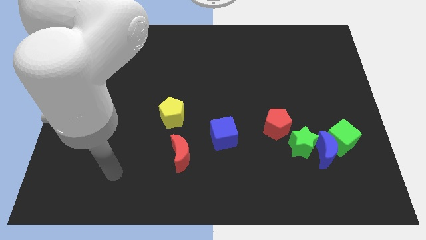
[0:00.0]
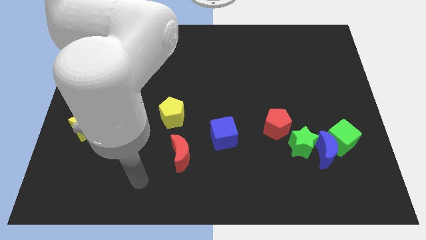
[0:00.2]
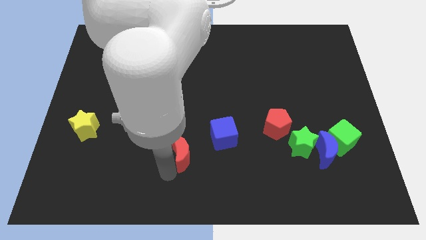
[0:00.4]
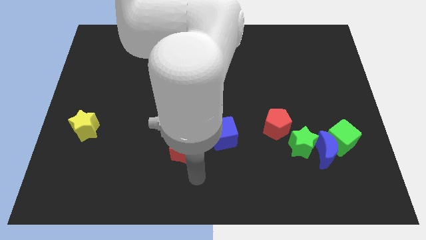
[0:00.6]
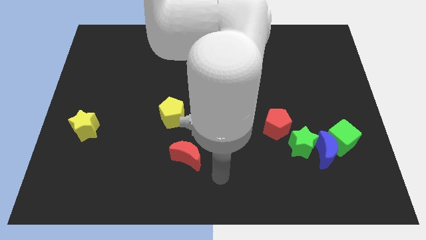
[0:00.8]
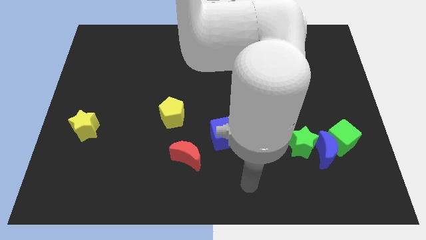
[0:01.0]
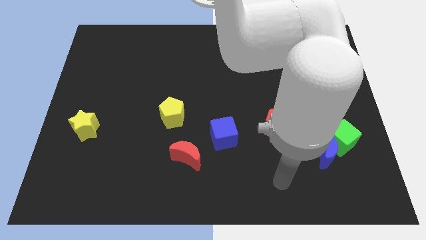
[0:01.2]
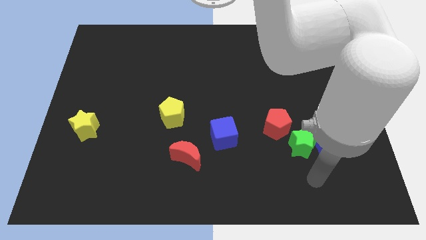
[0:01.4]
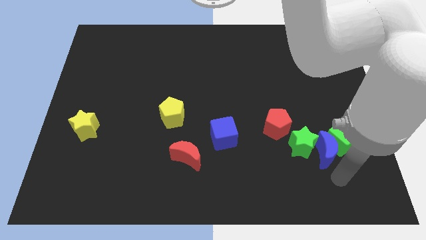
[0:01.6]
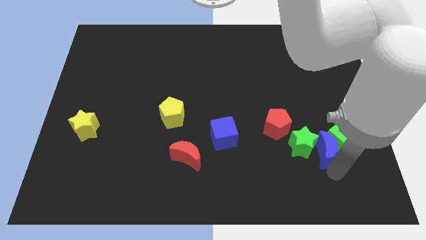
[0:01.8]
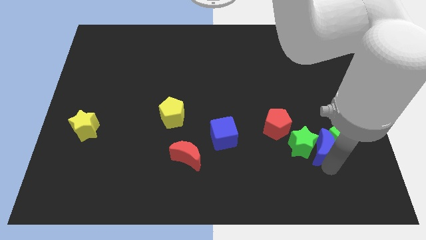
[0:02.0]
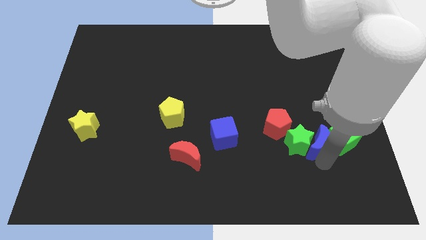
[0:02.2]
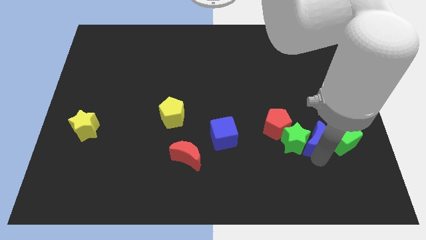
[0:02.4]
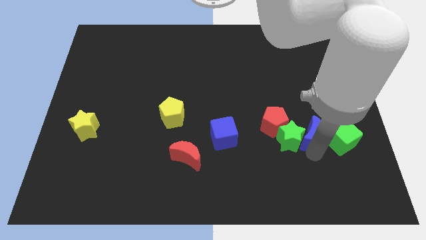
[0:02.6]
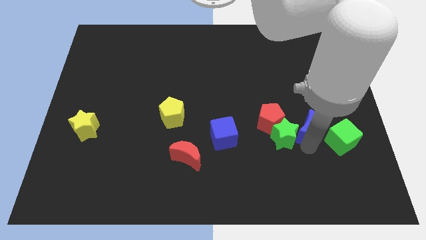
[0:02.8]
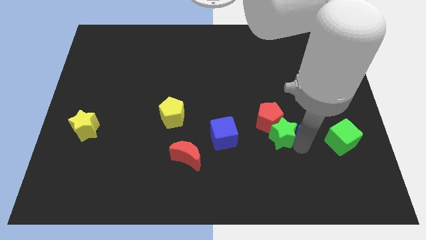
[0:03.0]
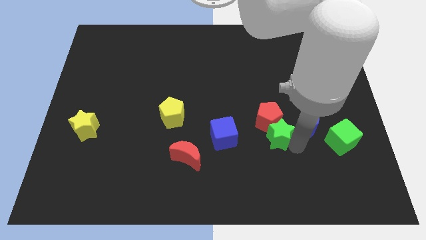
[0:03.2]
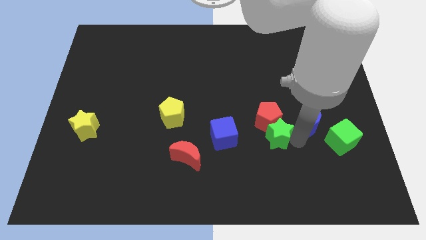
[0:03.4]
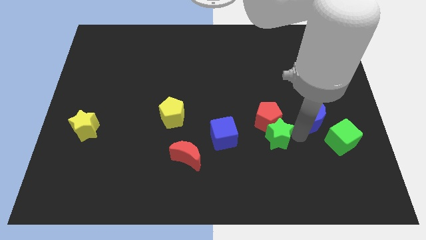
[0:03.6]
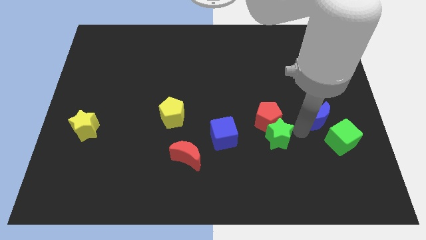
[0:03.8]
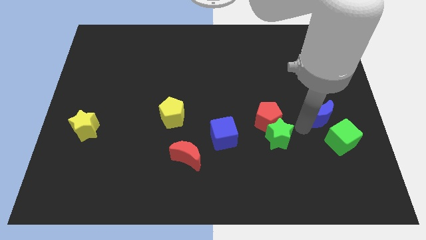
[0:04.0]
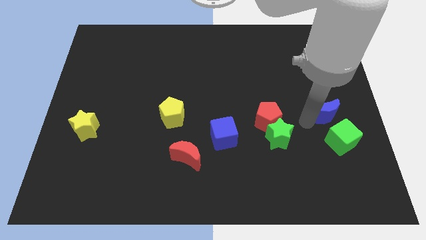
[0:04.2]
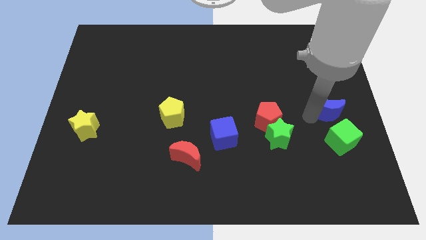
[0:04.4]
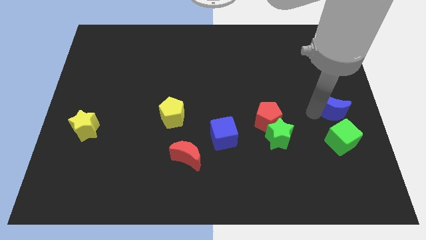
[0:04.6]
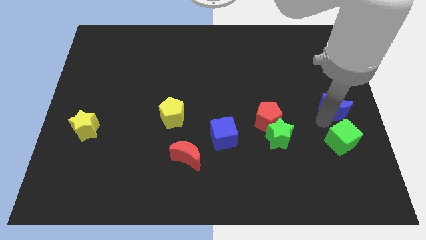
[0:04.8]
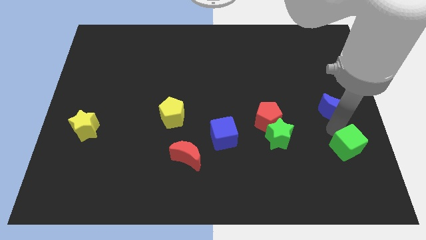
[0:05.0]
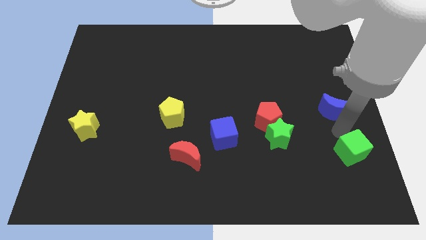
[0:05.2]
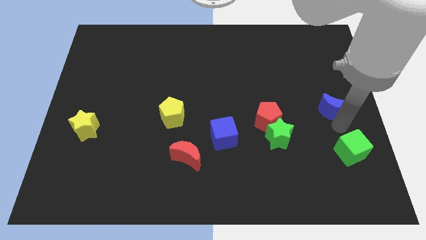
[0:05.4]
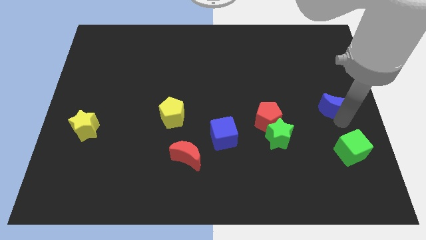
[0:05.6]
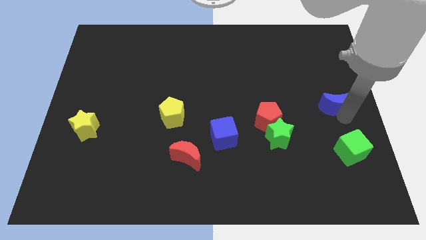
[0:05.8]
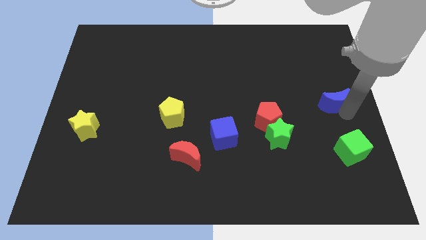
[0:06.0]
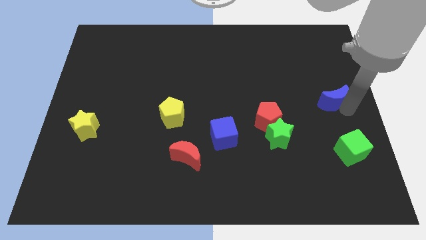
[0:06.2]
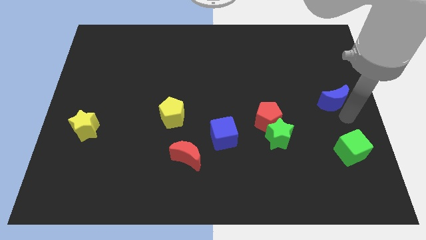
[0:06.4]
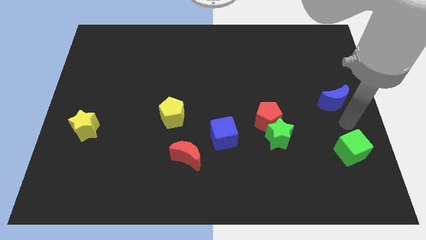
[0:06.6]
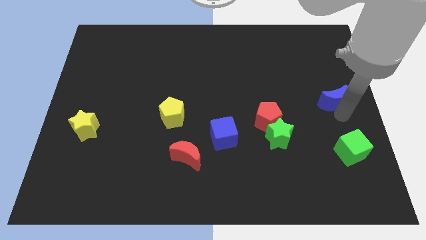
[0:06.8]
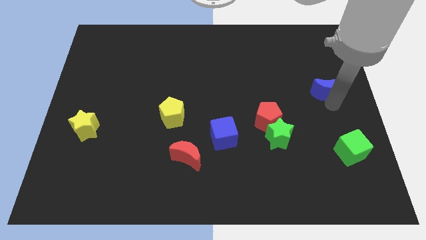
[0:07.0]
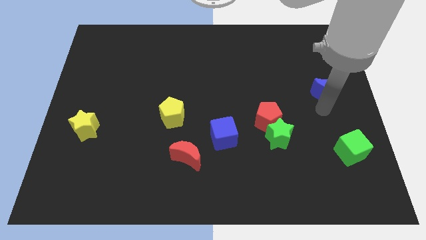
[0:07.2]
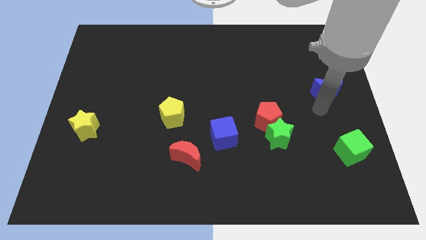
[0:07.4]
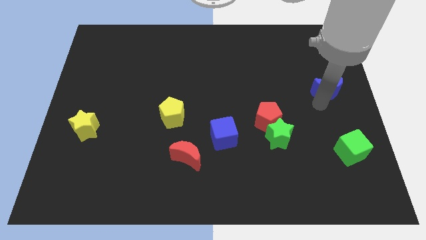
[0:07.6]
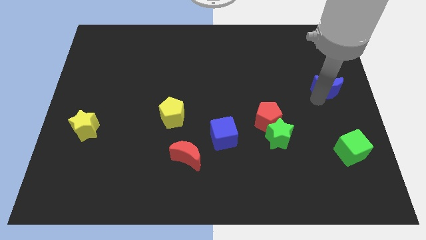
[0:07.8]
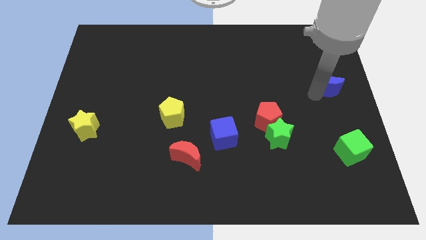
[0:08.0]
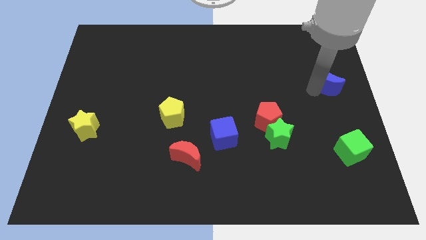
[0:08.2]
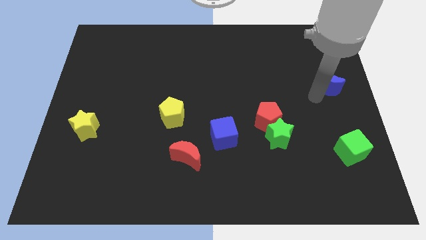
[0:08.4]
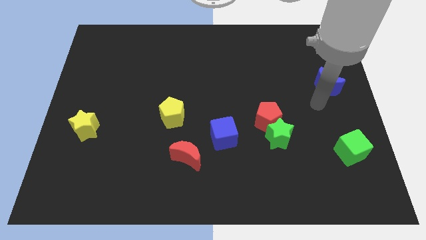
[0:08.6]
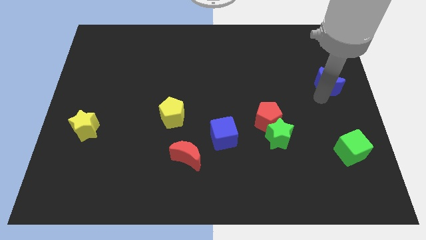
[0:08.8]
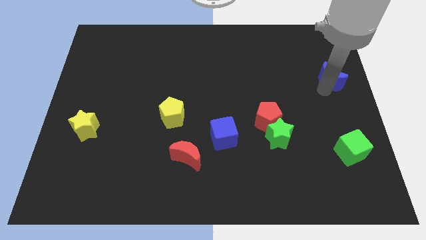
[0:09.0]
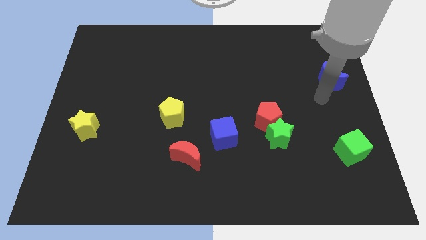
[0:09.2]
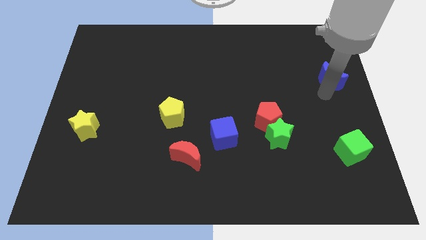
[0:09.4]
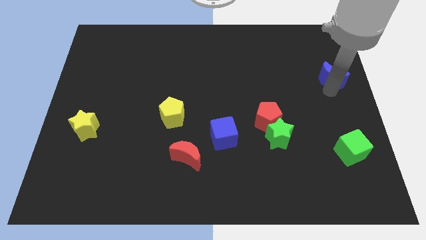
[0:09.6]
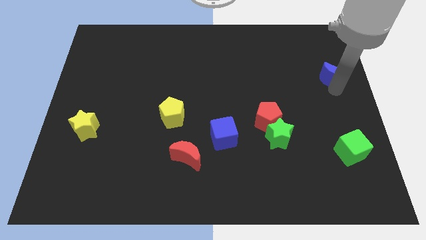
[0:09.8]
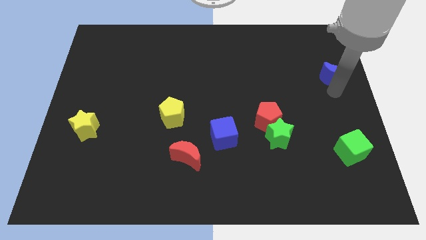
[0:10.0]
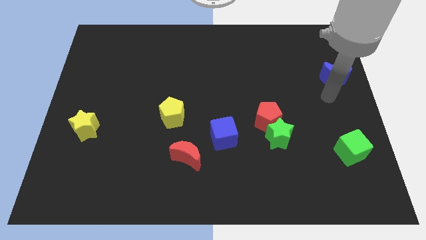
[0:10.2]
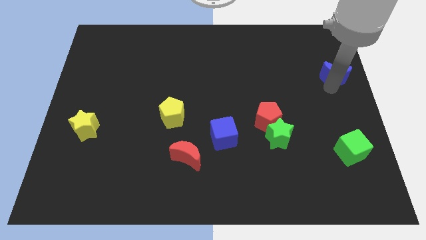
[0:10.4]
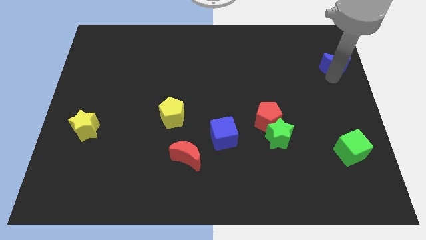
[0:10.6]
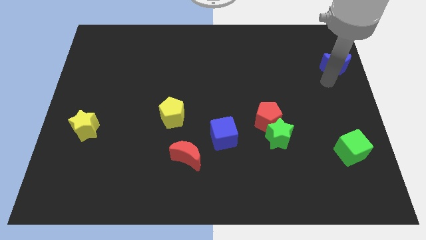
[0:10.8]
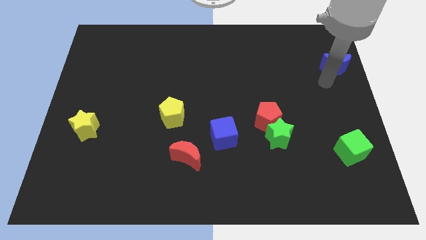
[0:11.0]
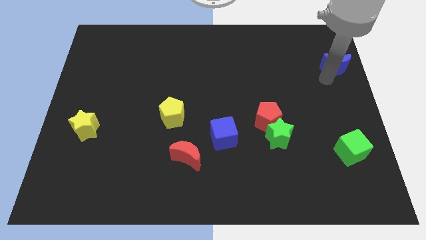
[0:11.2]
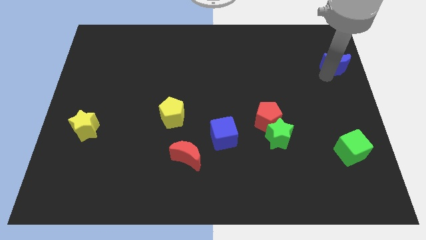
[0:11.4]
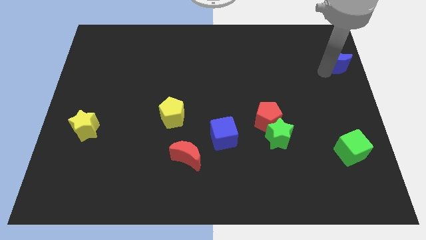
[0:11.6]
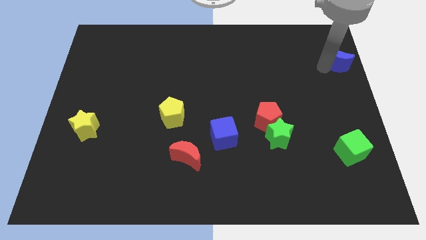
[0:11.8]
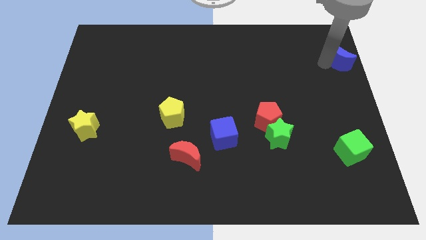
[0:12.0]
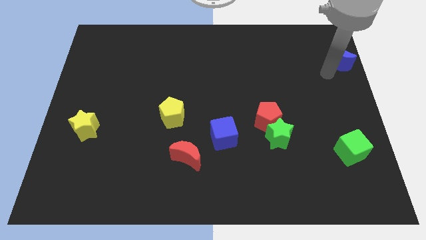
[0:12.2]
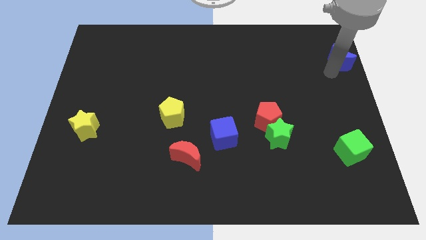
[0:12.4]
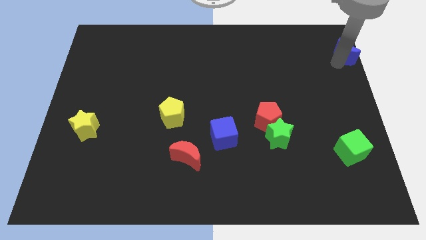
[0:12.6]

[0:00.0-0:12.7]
put the blue moon to the top right of the board

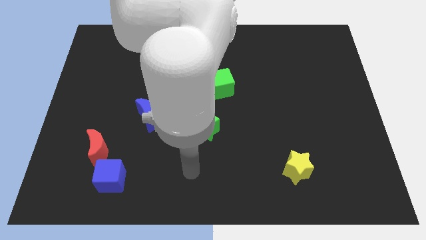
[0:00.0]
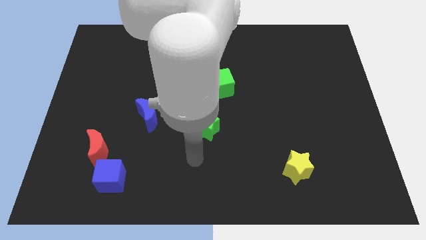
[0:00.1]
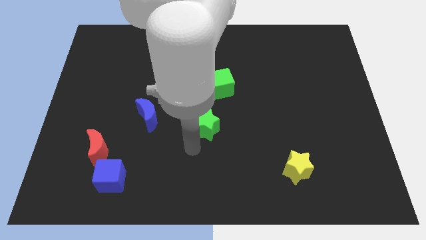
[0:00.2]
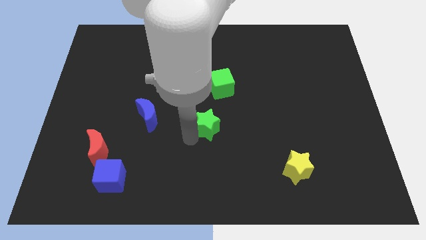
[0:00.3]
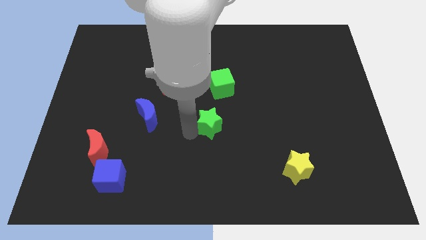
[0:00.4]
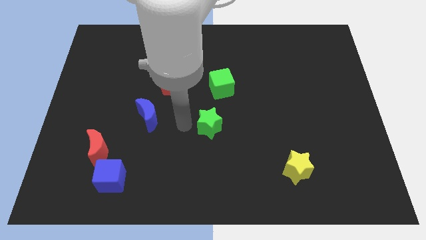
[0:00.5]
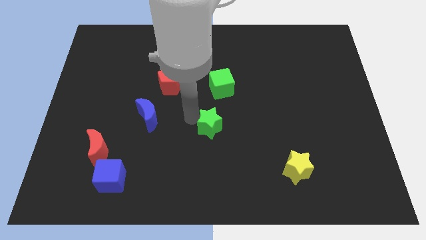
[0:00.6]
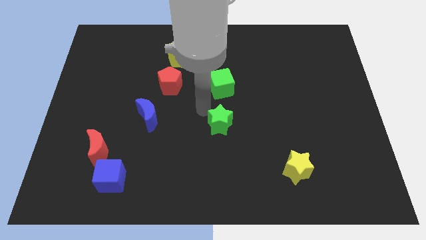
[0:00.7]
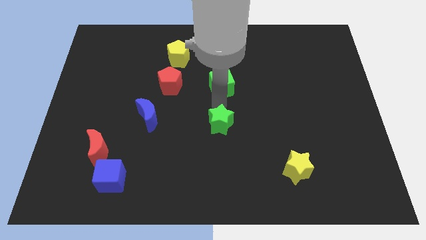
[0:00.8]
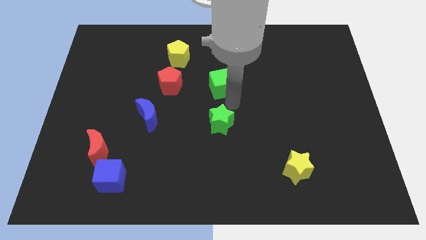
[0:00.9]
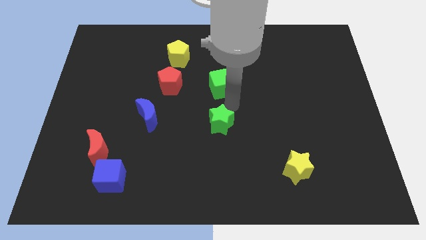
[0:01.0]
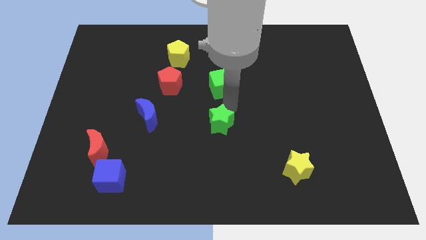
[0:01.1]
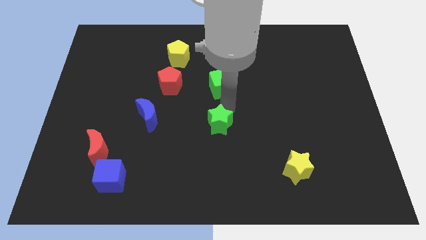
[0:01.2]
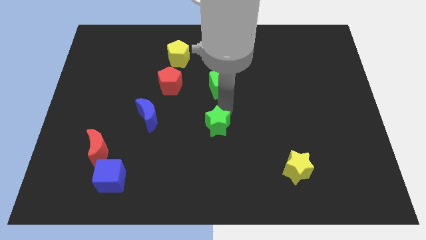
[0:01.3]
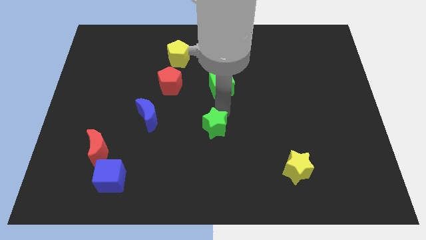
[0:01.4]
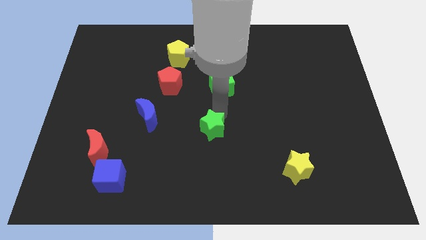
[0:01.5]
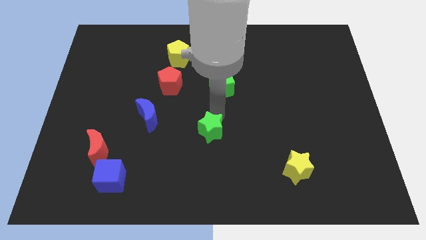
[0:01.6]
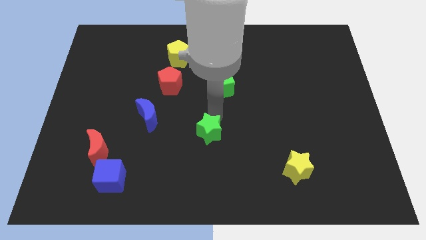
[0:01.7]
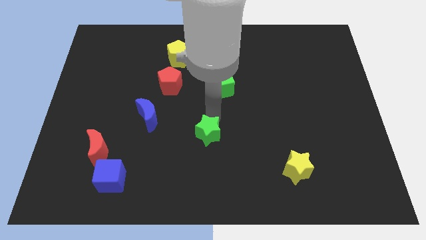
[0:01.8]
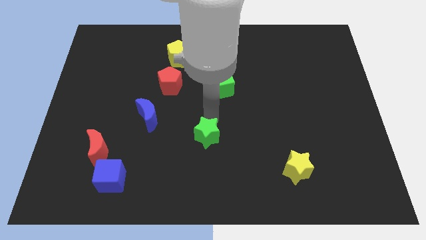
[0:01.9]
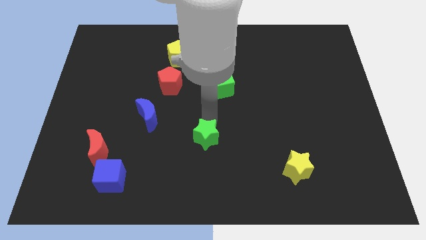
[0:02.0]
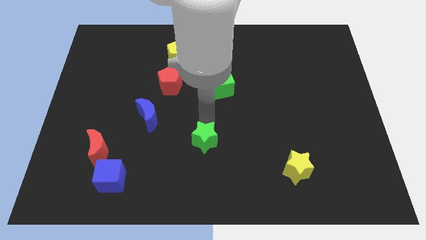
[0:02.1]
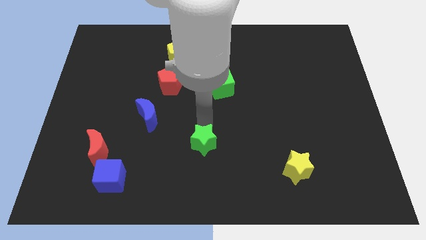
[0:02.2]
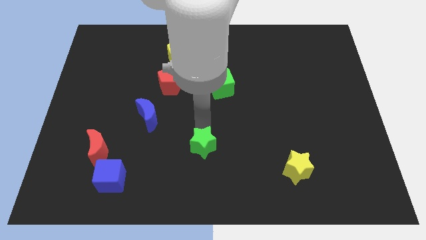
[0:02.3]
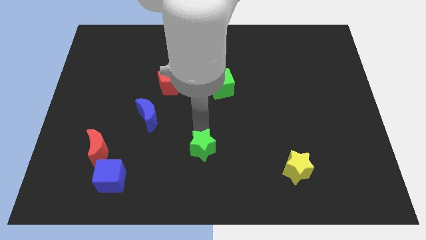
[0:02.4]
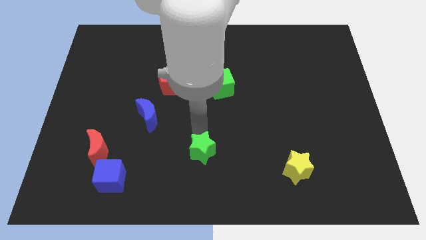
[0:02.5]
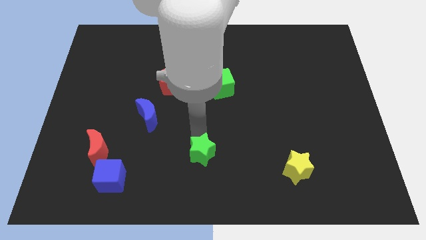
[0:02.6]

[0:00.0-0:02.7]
put the green star to the bottom side
